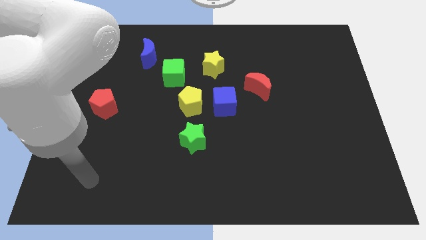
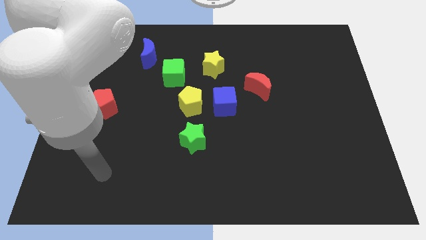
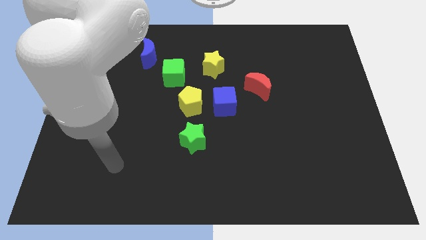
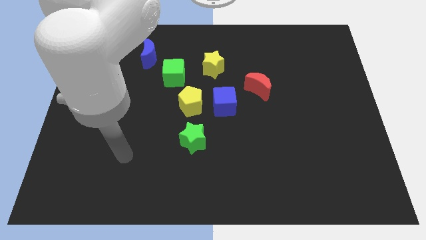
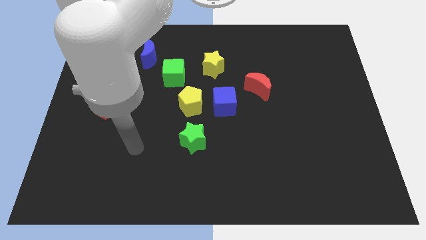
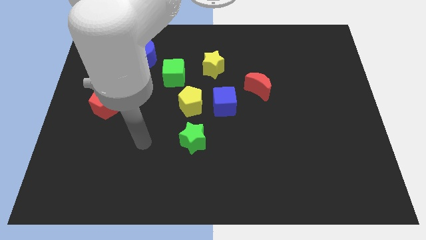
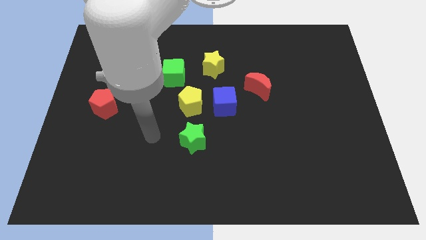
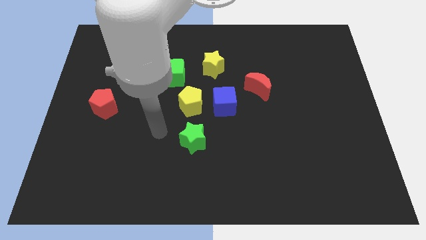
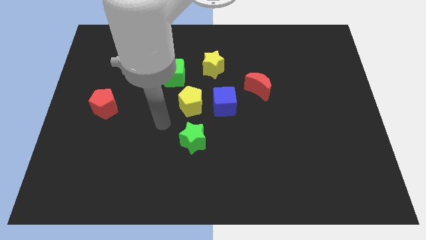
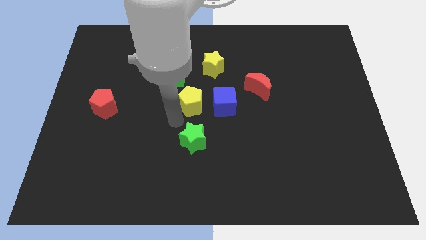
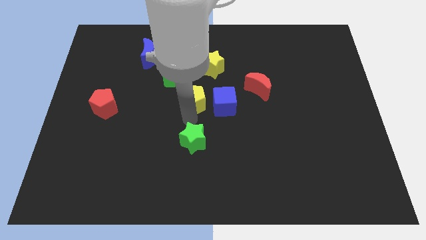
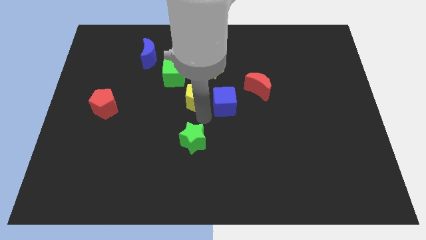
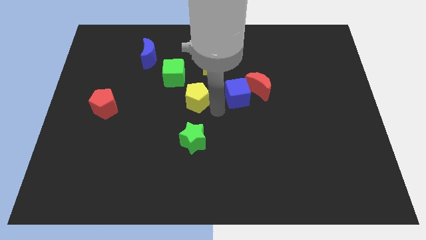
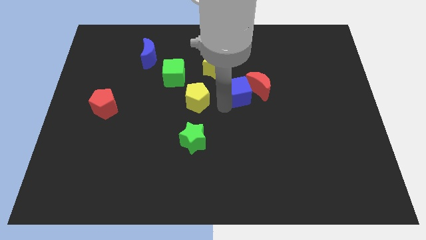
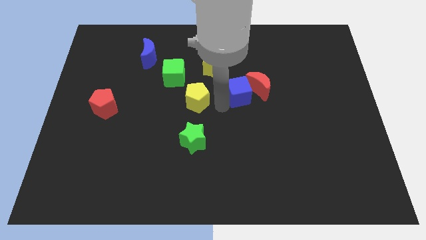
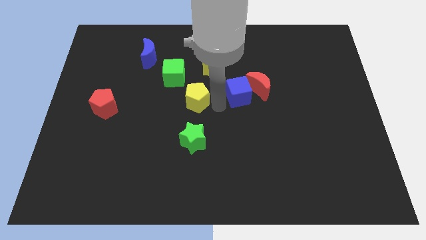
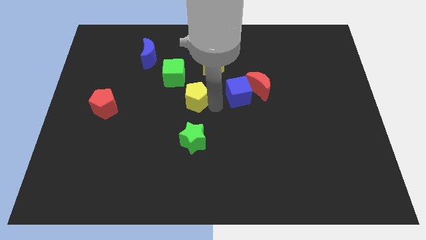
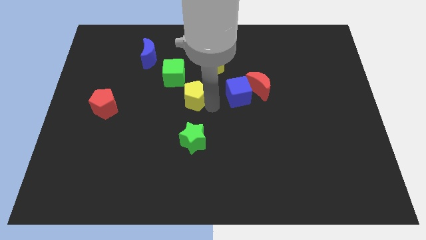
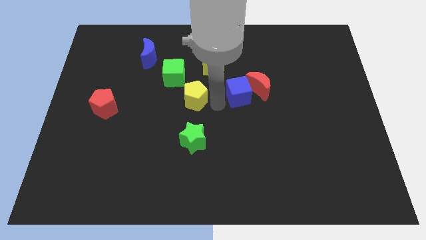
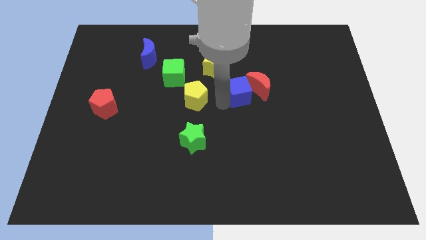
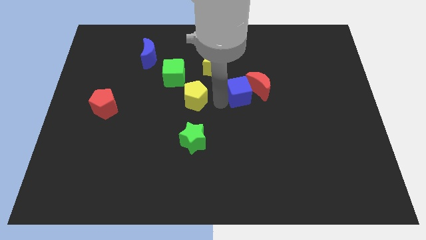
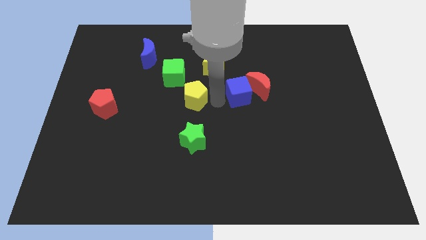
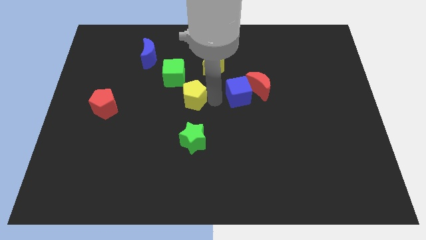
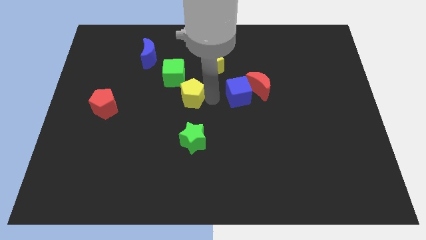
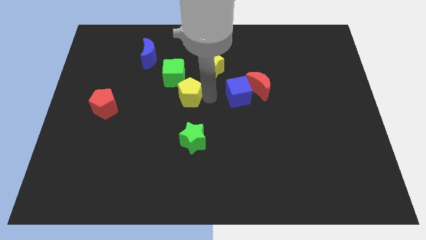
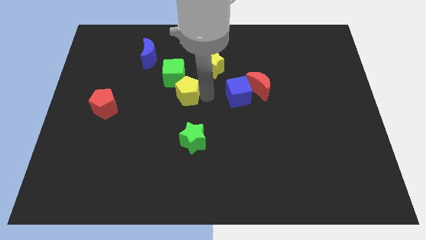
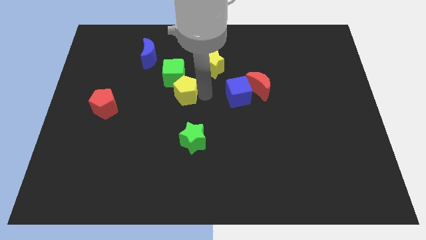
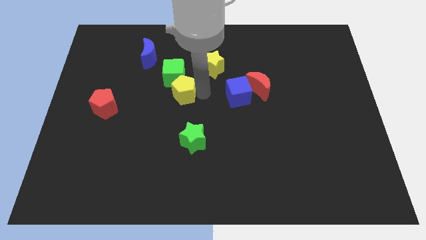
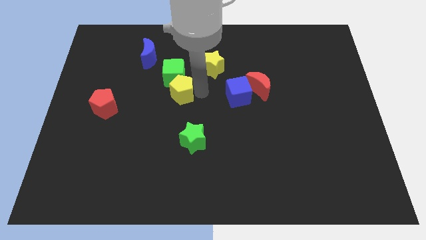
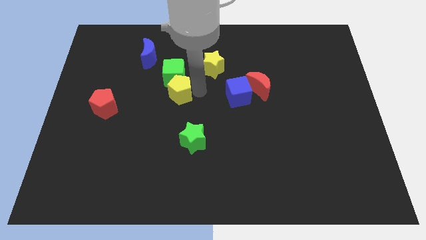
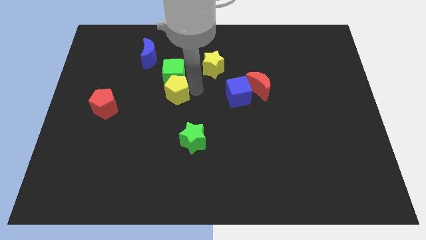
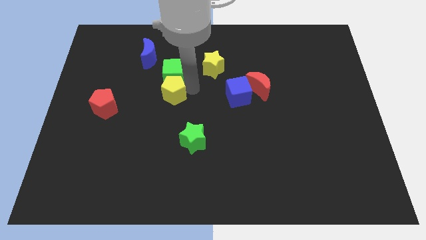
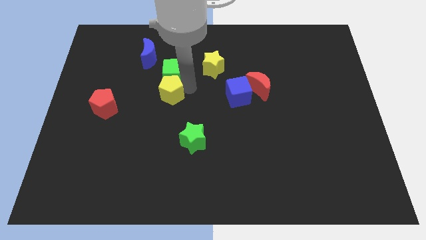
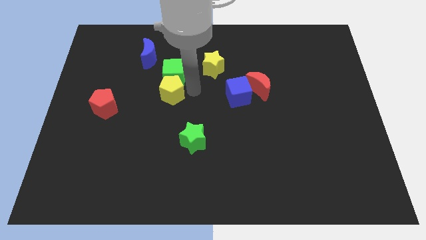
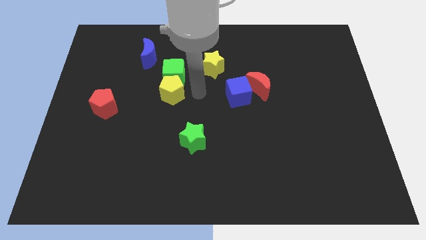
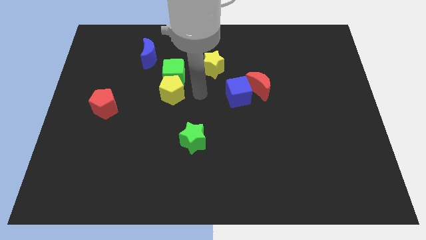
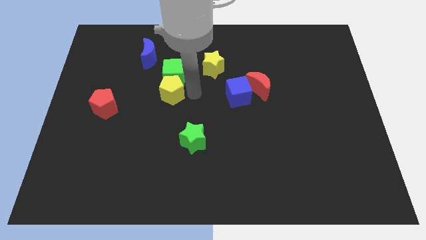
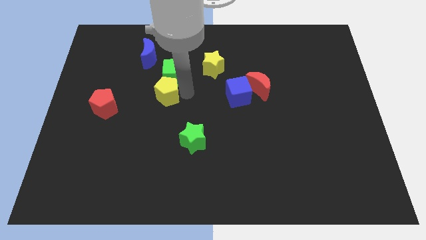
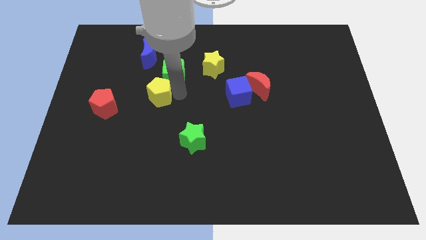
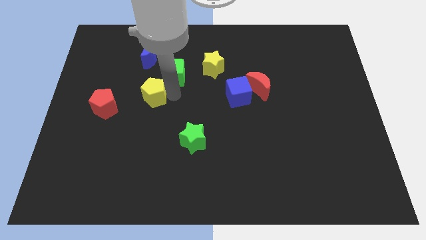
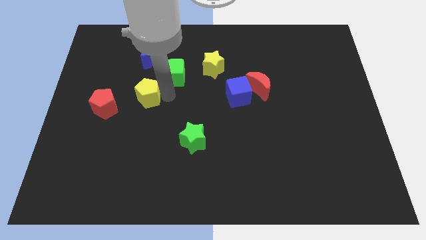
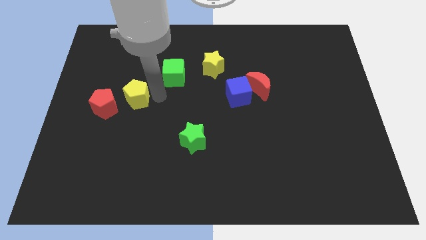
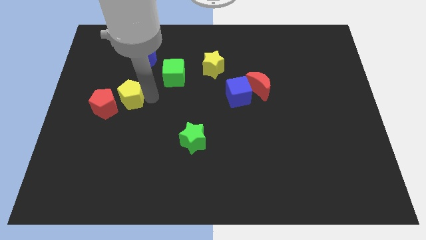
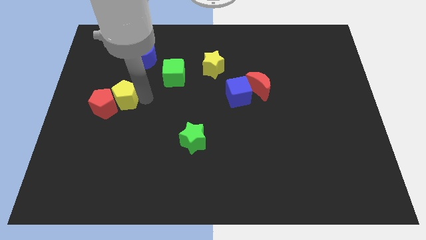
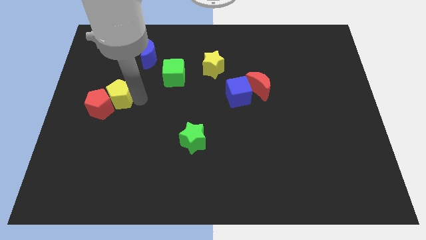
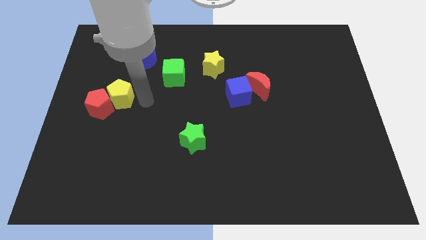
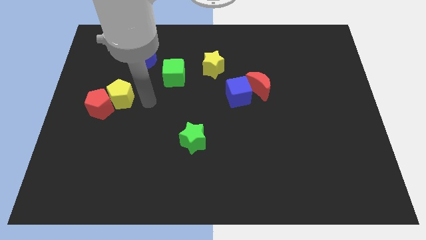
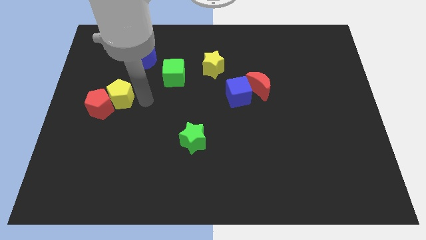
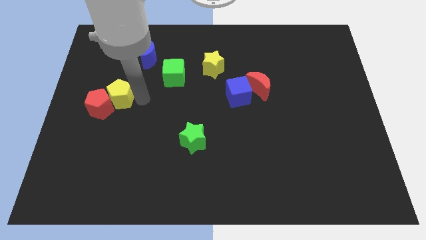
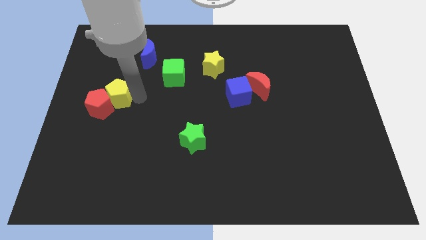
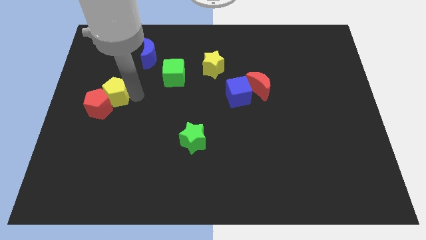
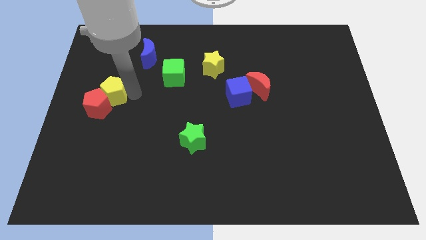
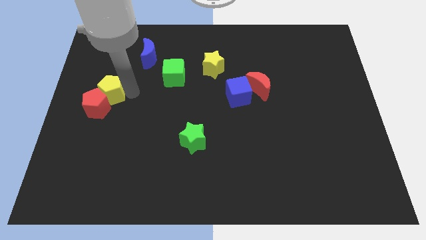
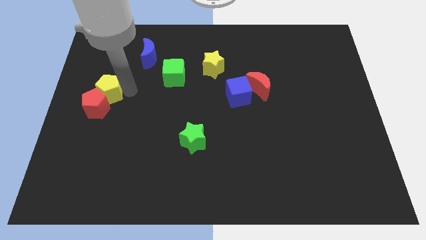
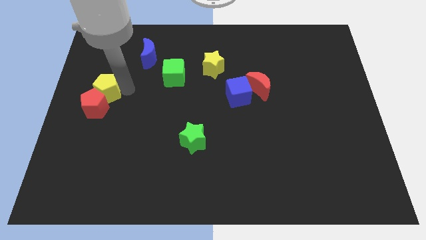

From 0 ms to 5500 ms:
push the yellow pentagon to the left side of the board

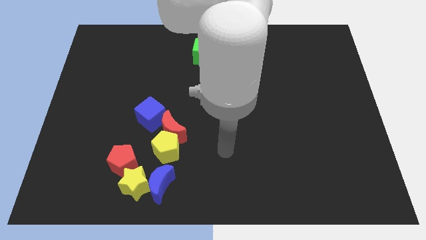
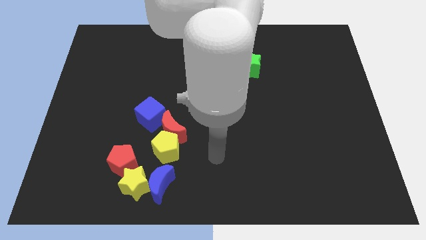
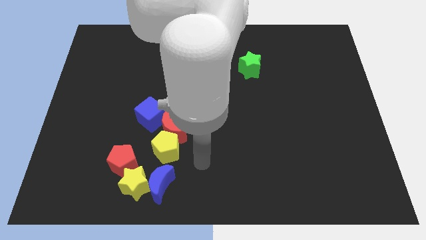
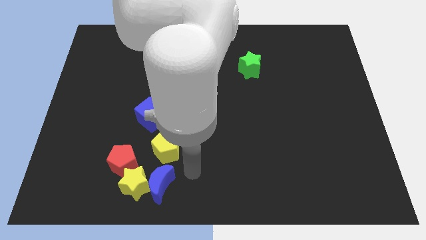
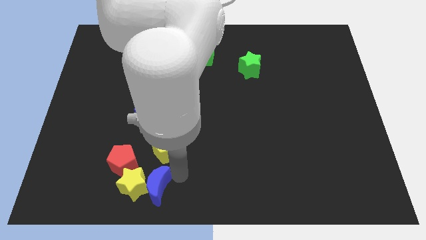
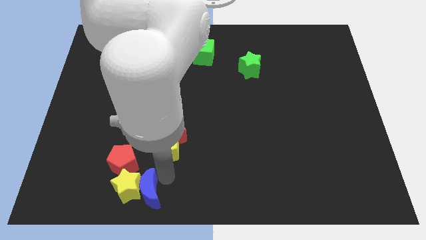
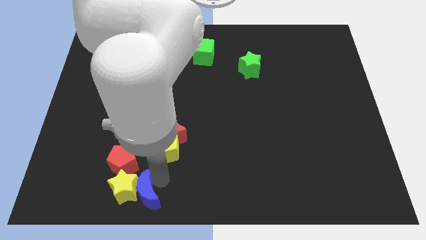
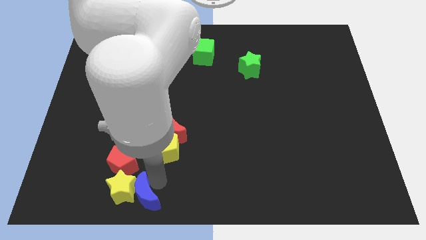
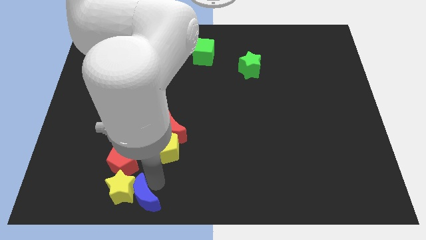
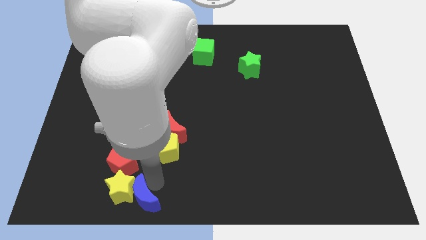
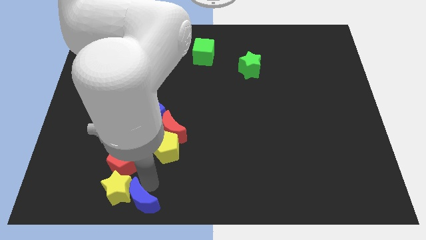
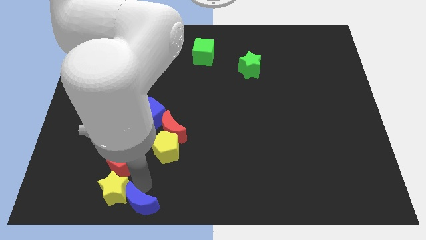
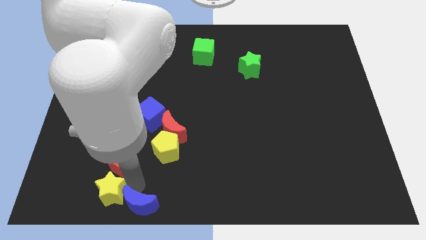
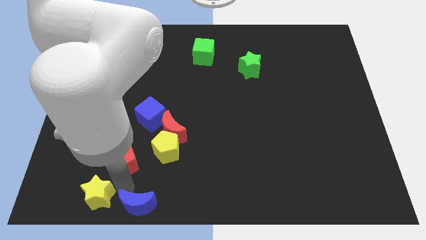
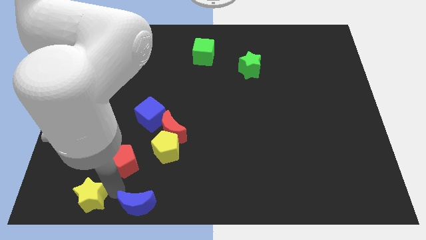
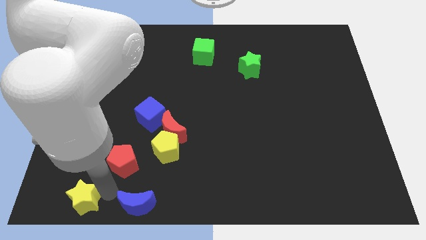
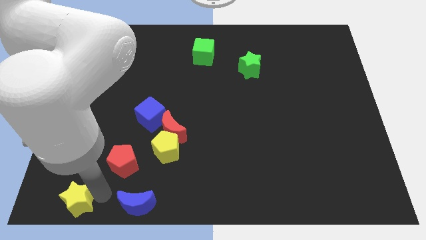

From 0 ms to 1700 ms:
slide the yellow star to the lower left corner
